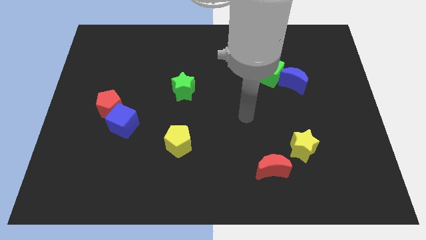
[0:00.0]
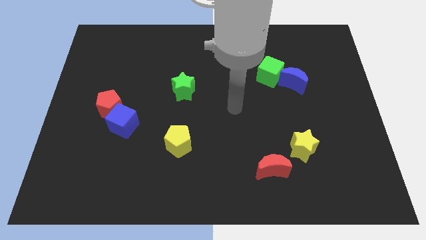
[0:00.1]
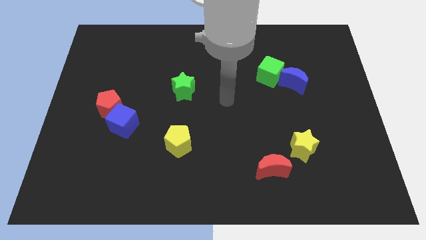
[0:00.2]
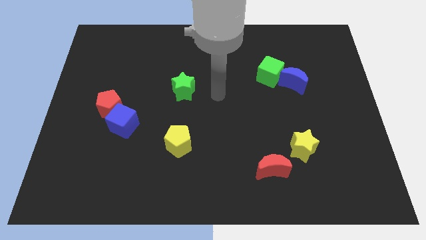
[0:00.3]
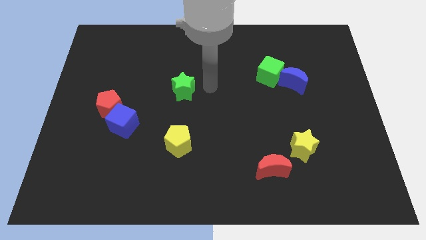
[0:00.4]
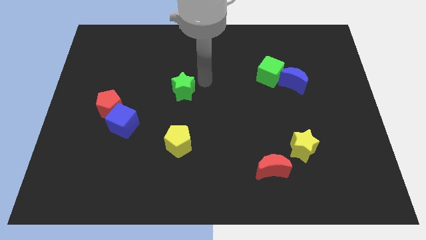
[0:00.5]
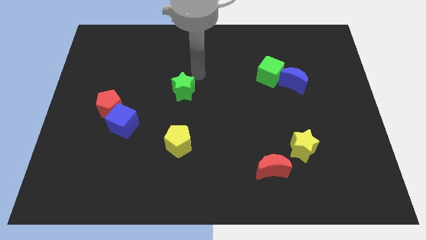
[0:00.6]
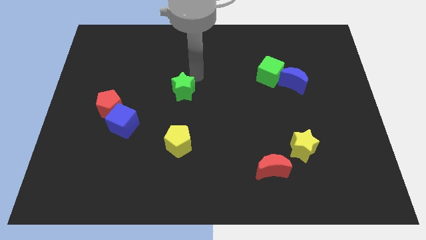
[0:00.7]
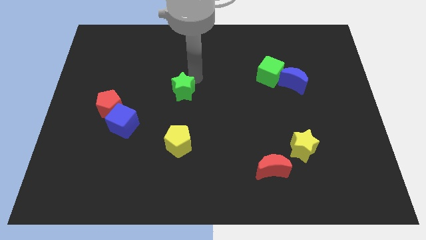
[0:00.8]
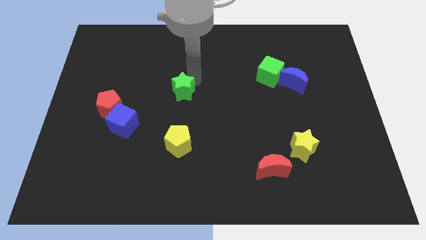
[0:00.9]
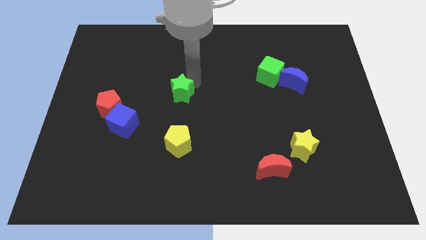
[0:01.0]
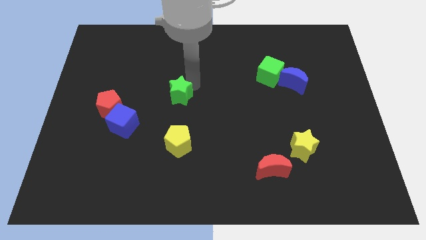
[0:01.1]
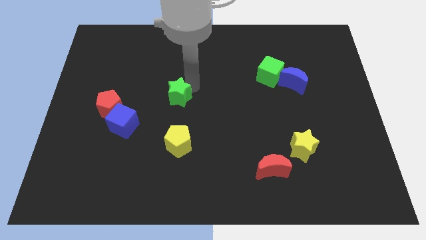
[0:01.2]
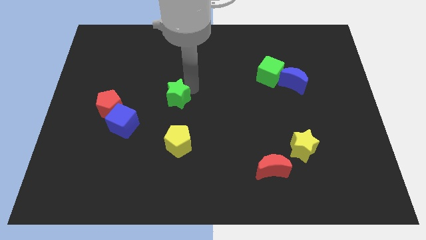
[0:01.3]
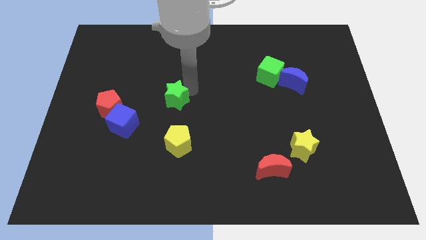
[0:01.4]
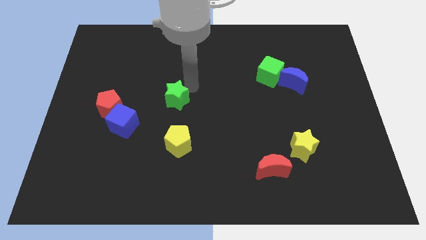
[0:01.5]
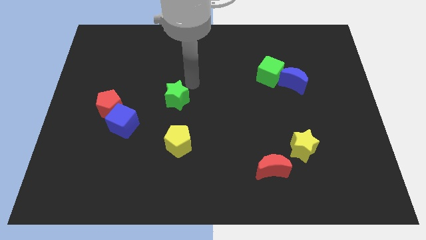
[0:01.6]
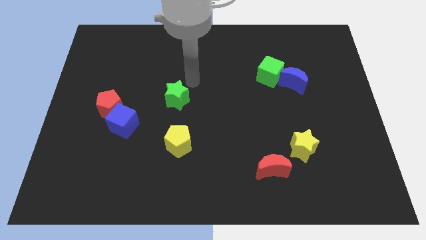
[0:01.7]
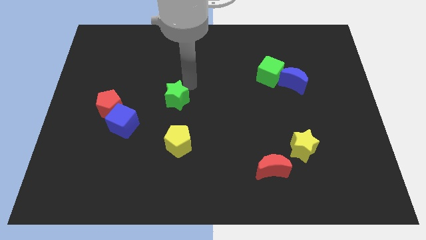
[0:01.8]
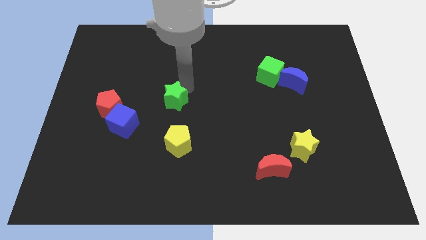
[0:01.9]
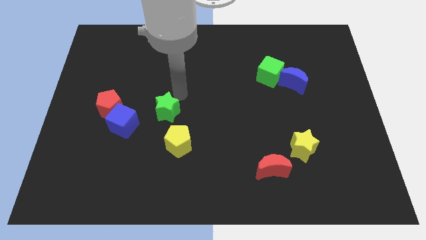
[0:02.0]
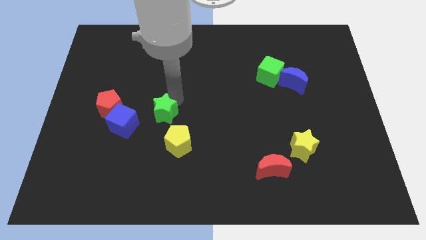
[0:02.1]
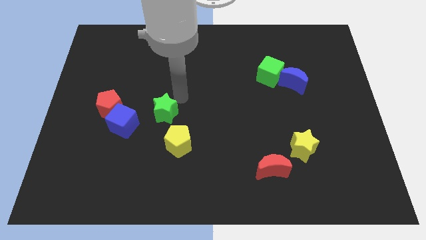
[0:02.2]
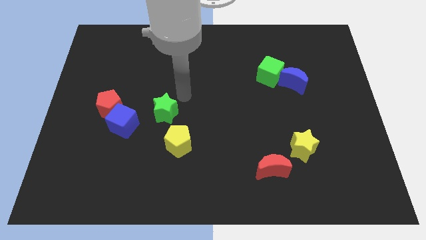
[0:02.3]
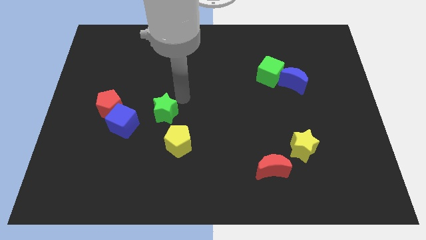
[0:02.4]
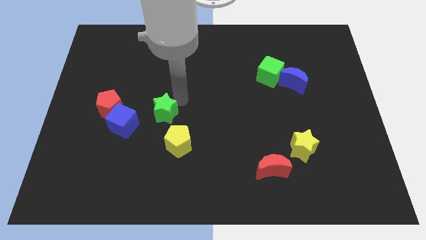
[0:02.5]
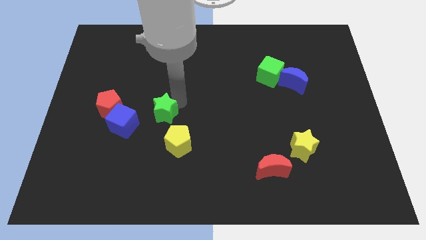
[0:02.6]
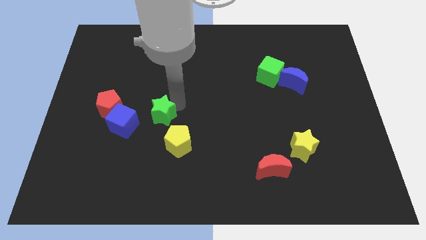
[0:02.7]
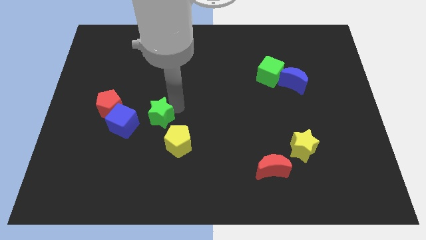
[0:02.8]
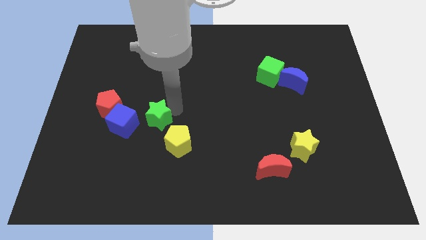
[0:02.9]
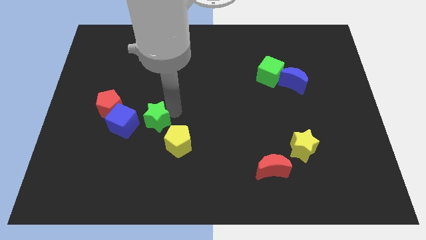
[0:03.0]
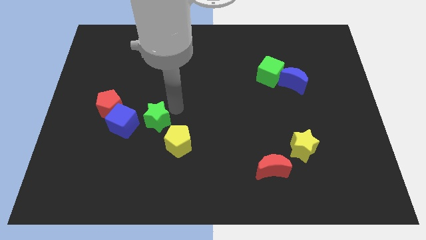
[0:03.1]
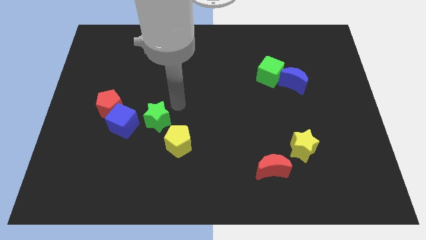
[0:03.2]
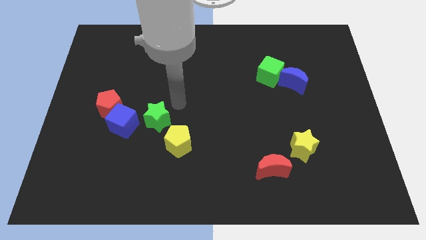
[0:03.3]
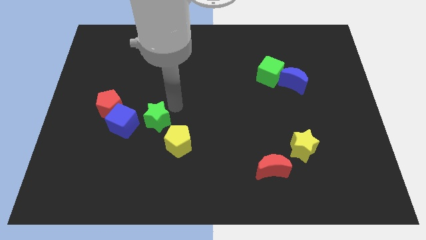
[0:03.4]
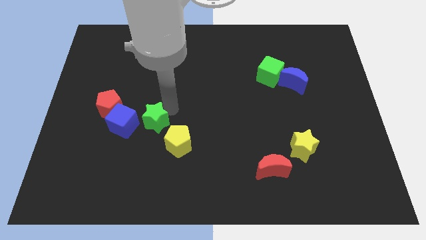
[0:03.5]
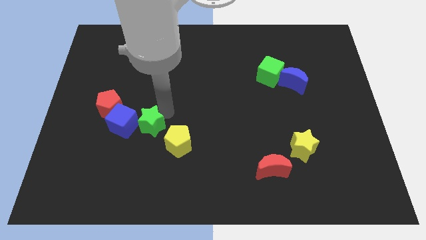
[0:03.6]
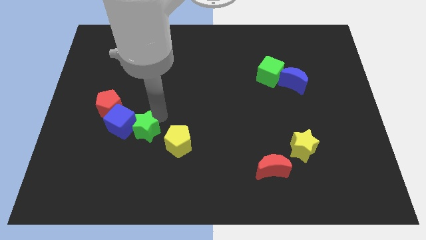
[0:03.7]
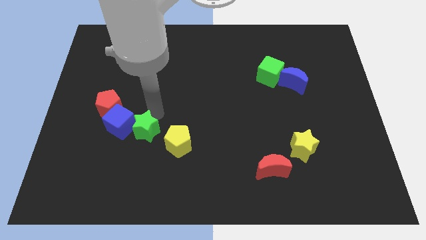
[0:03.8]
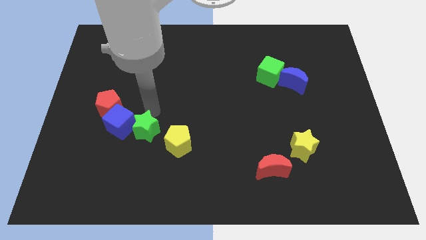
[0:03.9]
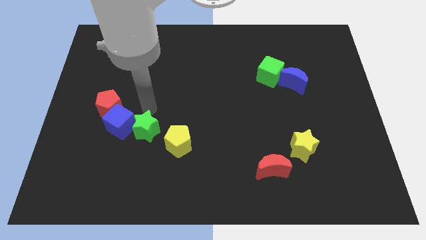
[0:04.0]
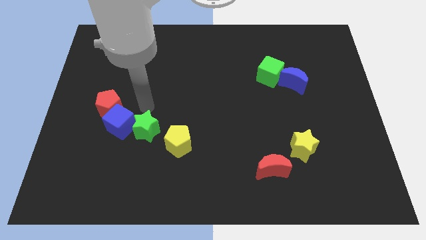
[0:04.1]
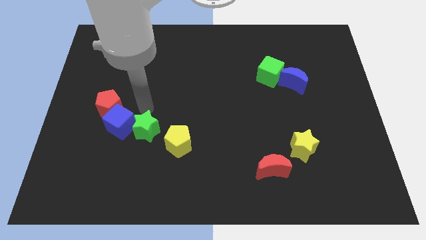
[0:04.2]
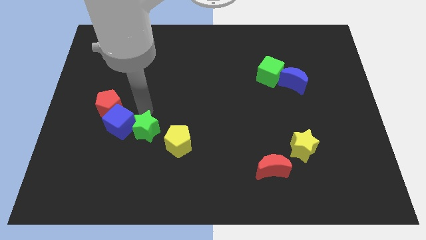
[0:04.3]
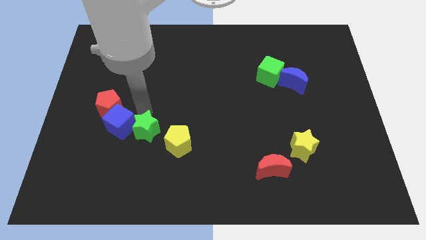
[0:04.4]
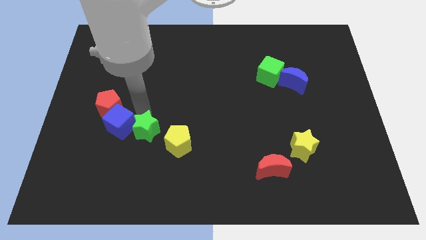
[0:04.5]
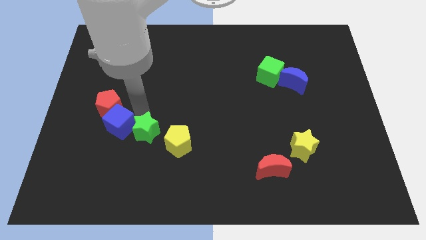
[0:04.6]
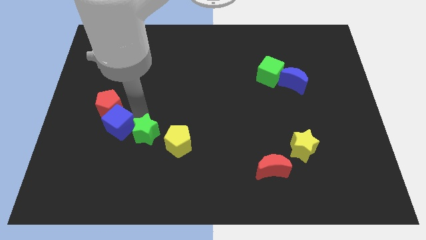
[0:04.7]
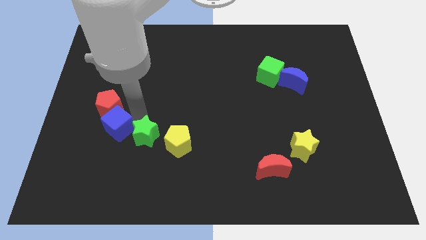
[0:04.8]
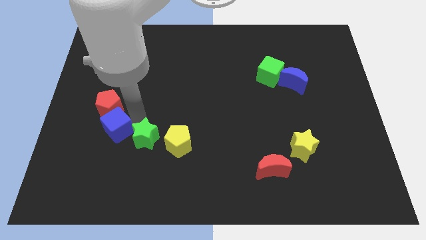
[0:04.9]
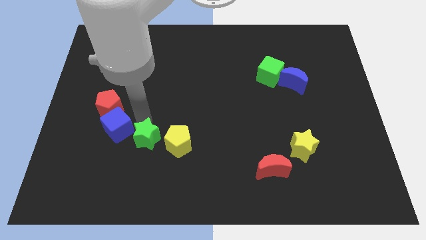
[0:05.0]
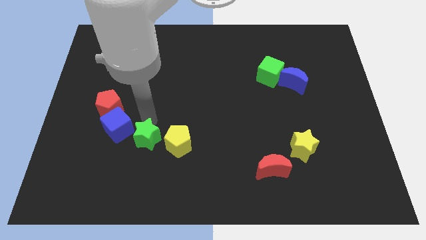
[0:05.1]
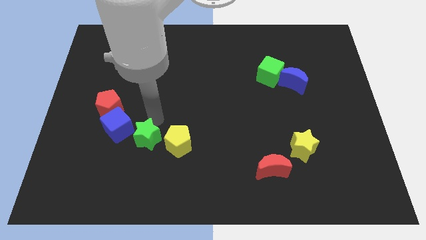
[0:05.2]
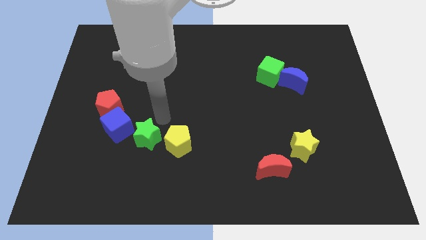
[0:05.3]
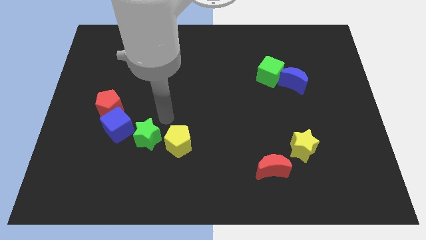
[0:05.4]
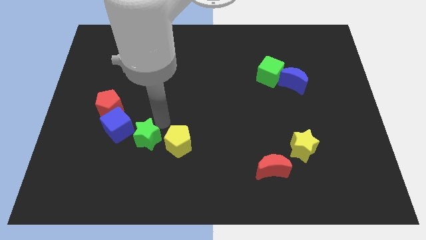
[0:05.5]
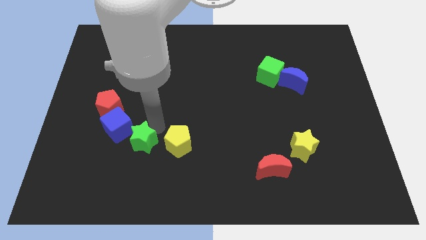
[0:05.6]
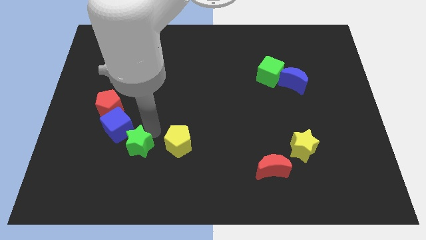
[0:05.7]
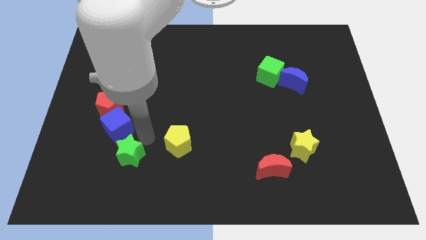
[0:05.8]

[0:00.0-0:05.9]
push the green star to the bottom of the blue cube

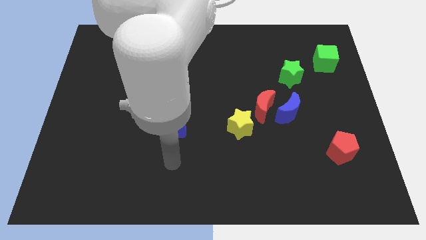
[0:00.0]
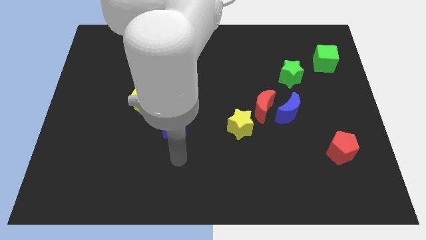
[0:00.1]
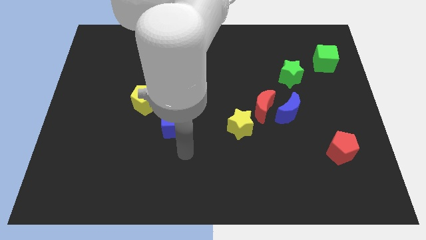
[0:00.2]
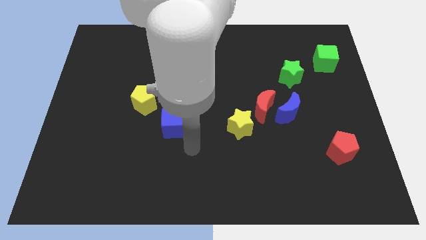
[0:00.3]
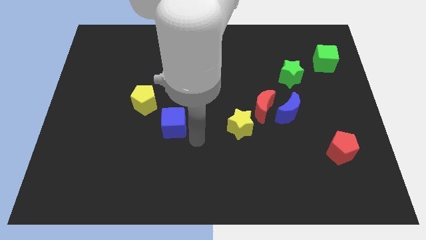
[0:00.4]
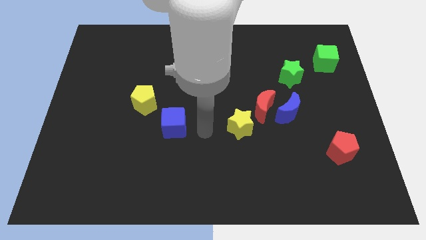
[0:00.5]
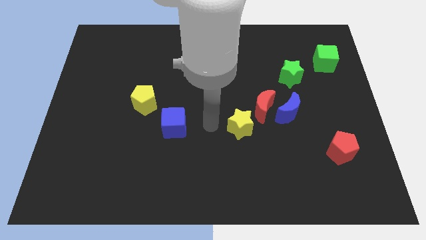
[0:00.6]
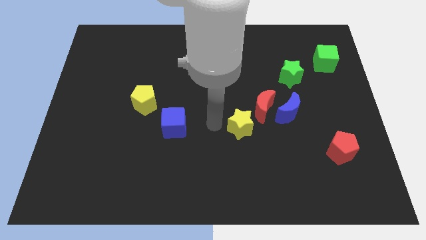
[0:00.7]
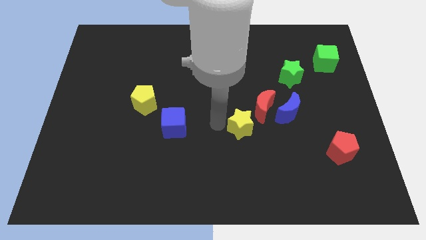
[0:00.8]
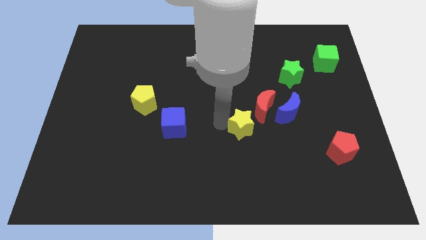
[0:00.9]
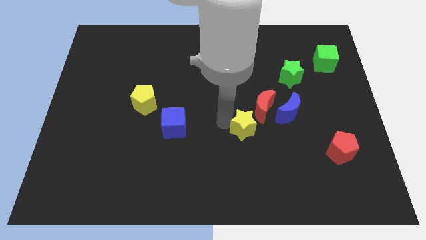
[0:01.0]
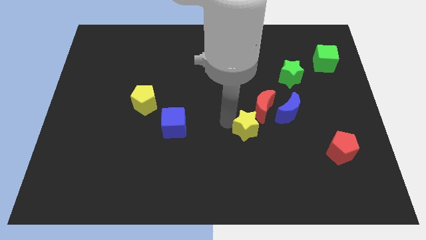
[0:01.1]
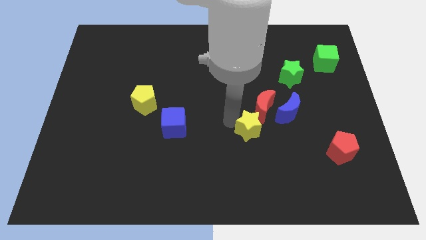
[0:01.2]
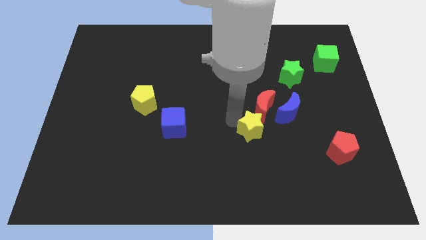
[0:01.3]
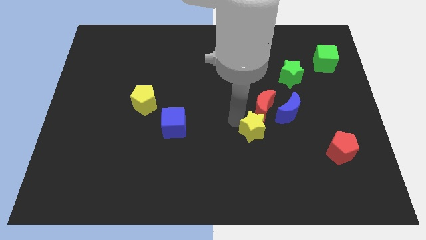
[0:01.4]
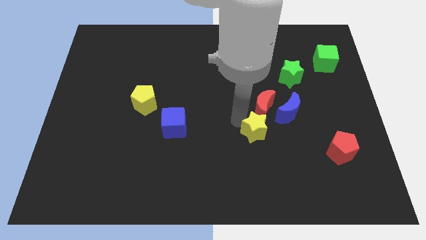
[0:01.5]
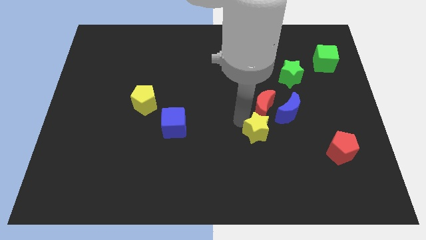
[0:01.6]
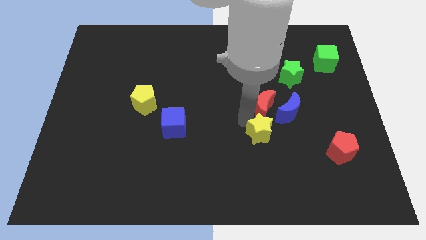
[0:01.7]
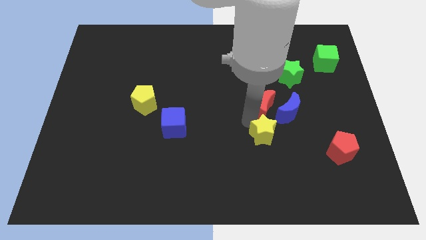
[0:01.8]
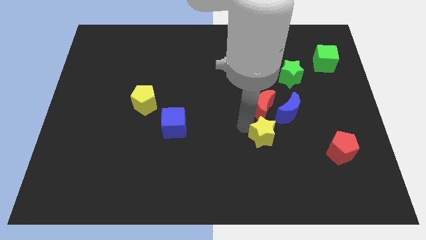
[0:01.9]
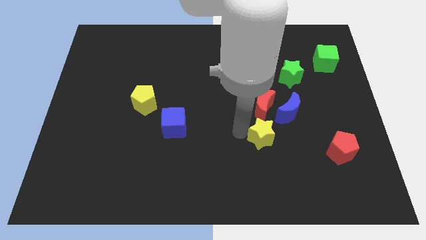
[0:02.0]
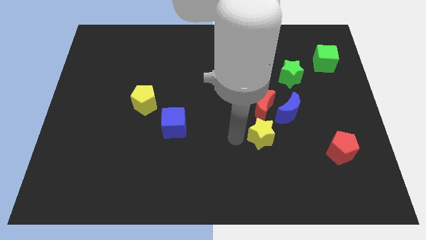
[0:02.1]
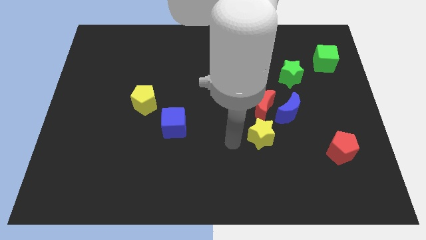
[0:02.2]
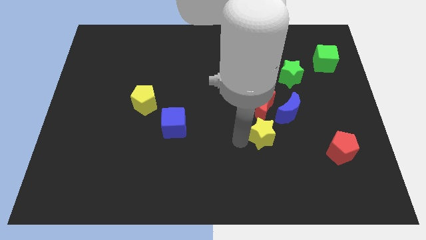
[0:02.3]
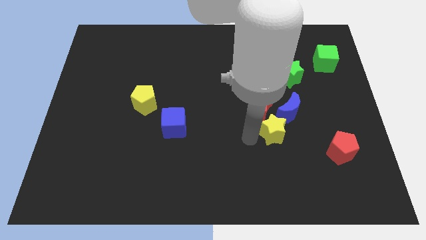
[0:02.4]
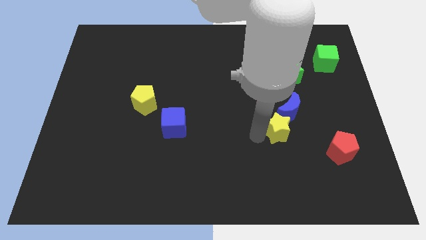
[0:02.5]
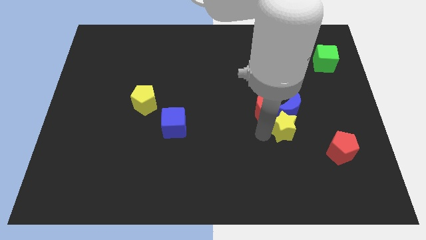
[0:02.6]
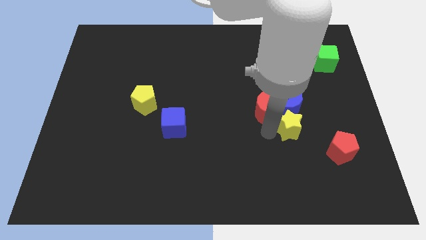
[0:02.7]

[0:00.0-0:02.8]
slide the yellow star to the top left side of the red pentagon
